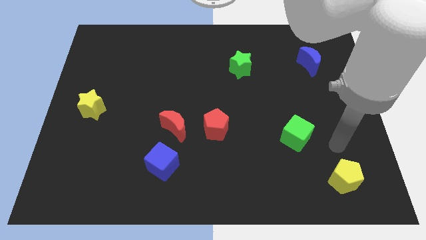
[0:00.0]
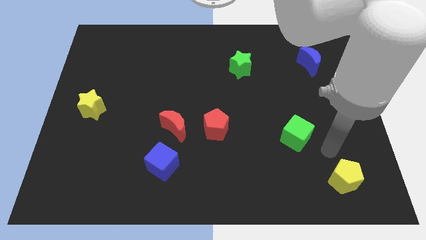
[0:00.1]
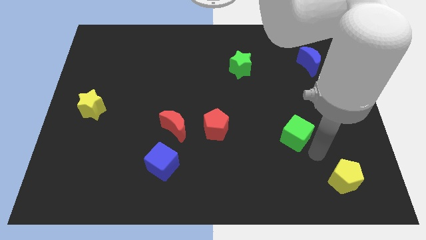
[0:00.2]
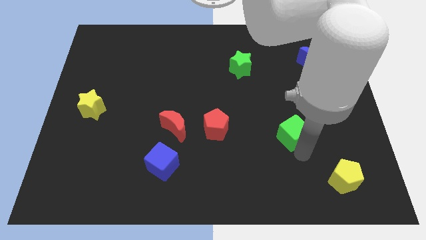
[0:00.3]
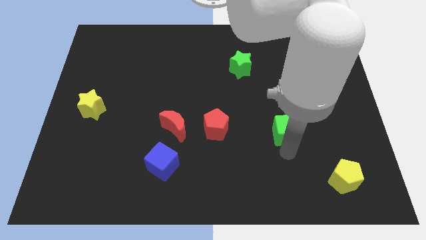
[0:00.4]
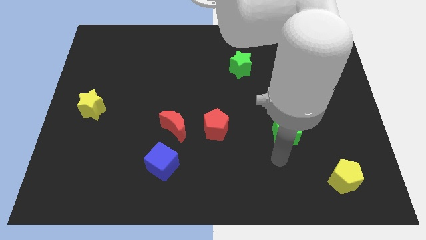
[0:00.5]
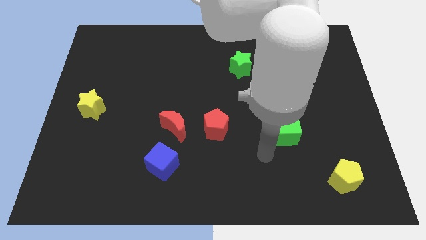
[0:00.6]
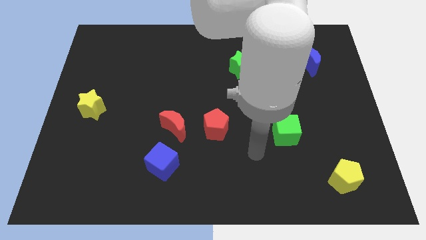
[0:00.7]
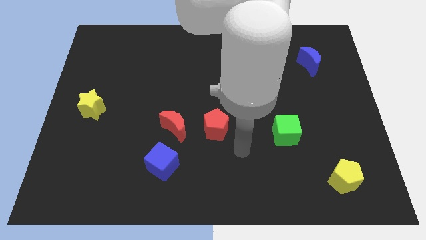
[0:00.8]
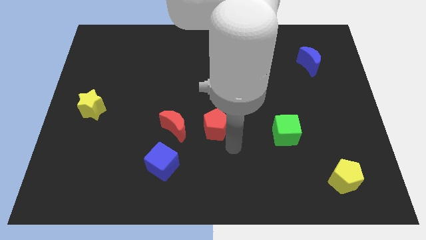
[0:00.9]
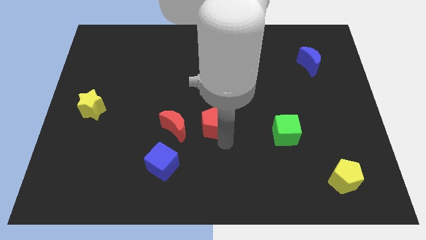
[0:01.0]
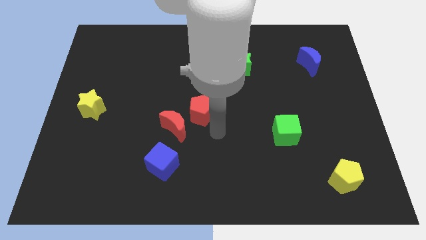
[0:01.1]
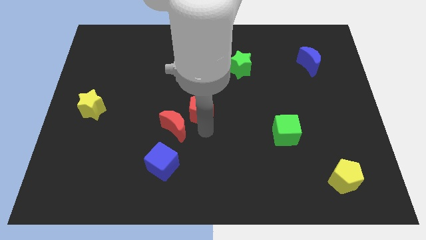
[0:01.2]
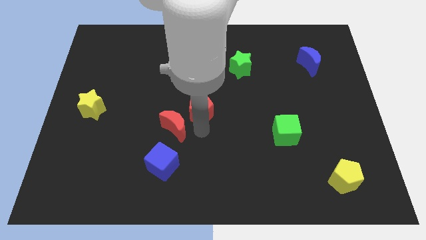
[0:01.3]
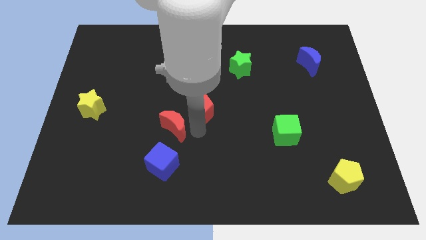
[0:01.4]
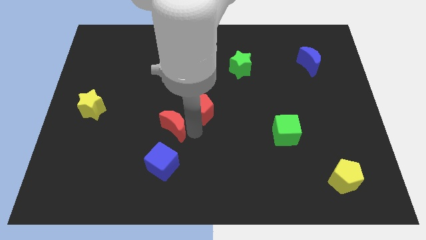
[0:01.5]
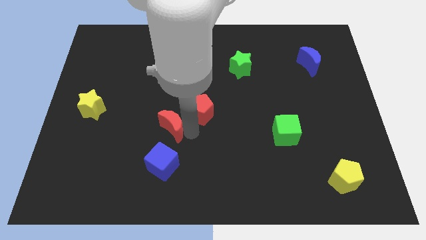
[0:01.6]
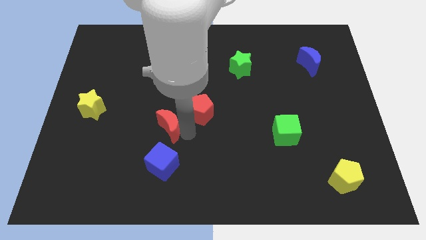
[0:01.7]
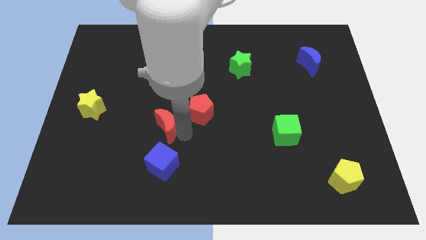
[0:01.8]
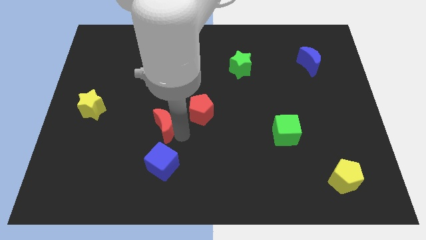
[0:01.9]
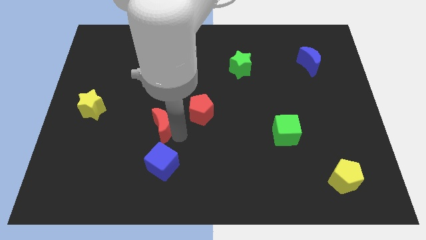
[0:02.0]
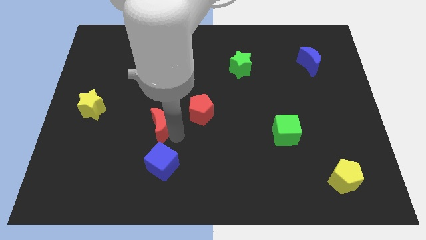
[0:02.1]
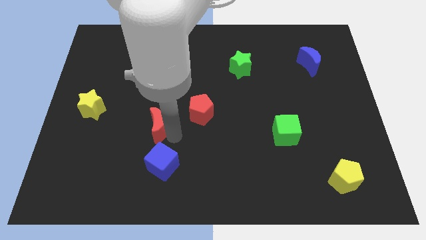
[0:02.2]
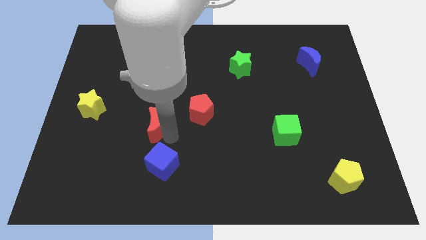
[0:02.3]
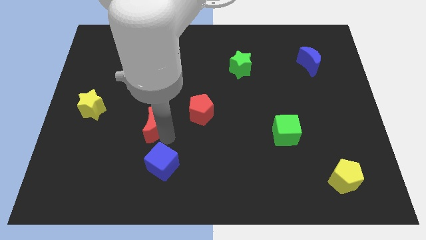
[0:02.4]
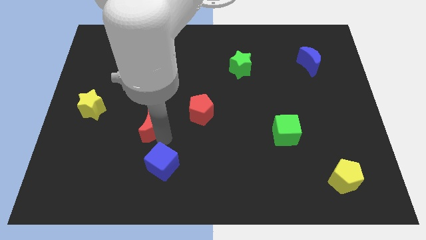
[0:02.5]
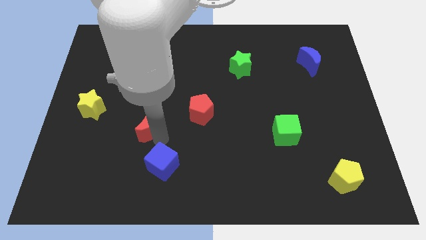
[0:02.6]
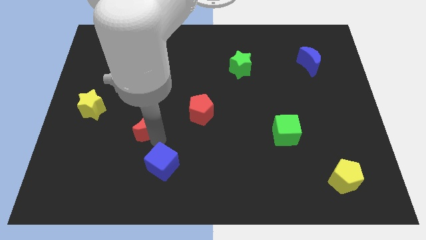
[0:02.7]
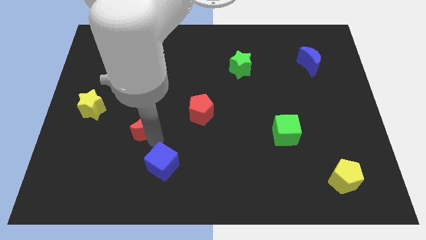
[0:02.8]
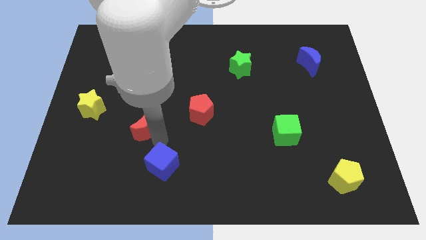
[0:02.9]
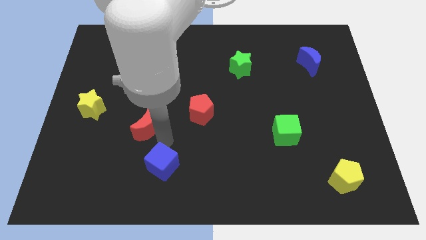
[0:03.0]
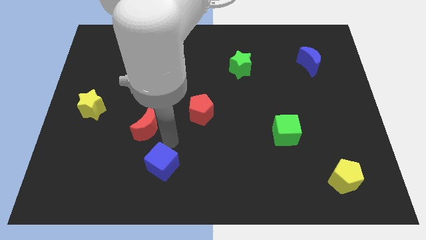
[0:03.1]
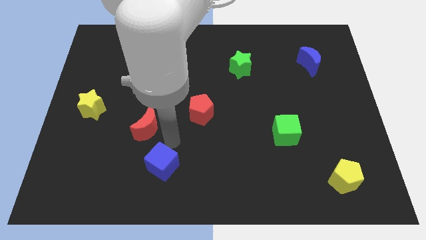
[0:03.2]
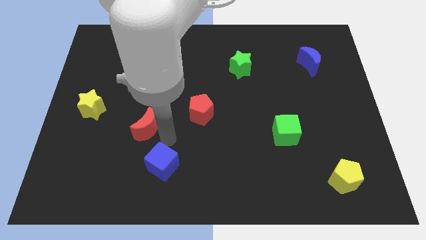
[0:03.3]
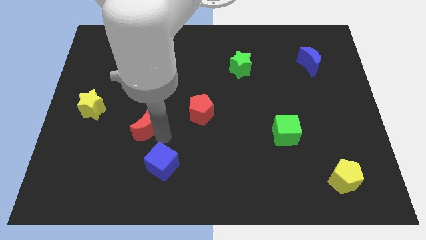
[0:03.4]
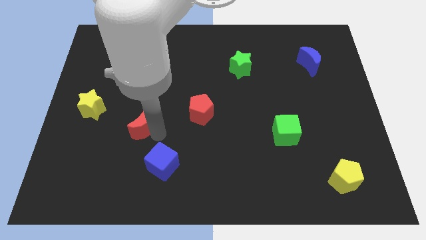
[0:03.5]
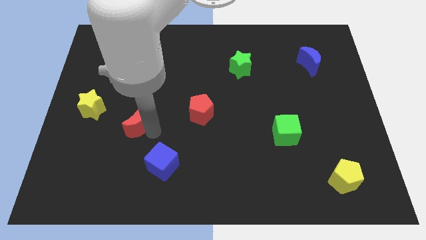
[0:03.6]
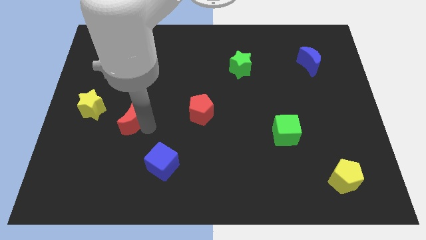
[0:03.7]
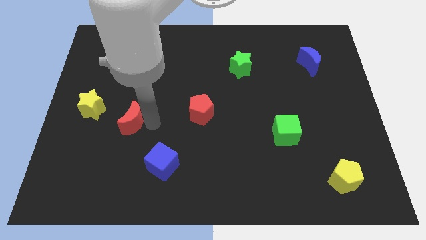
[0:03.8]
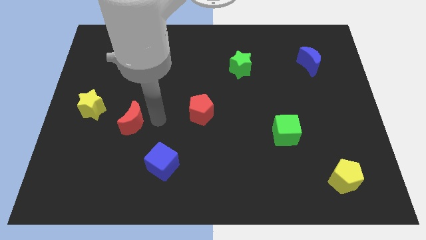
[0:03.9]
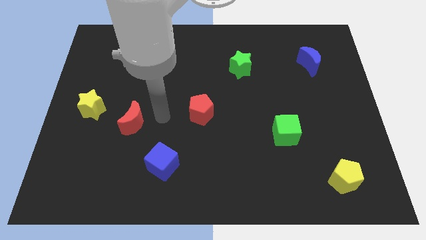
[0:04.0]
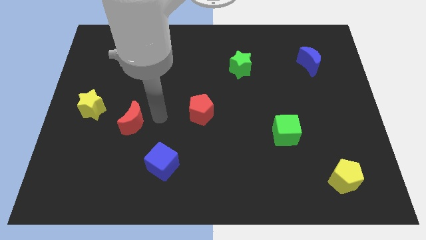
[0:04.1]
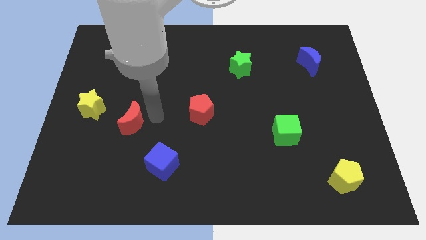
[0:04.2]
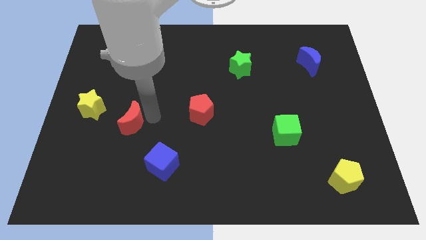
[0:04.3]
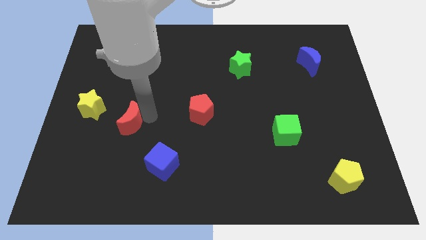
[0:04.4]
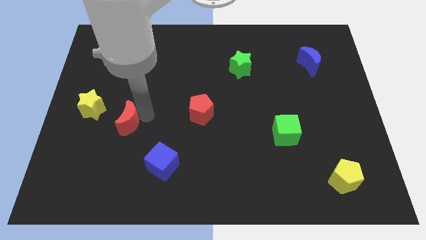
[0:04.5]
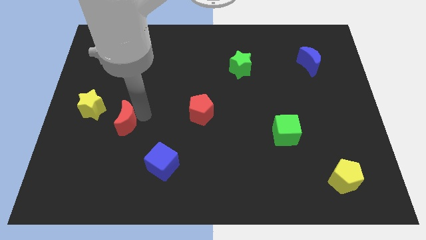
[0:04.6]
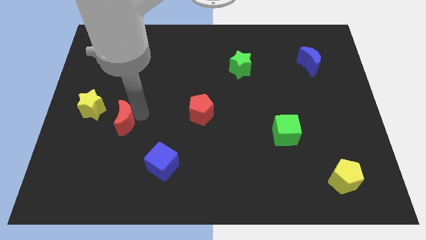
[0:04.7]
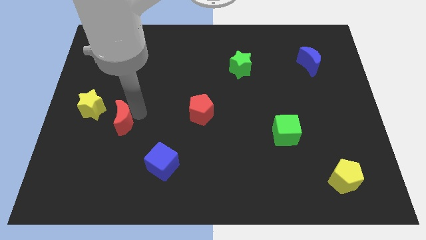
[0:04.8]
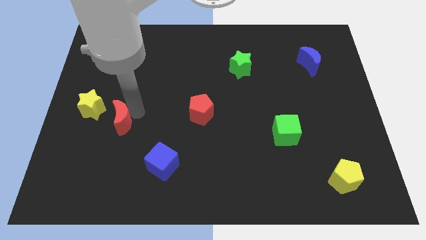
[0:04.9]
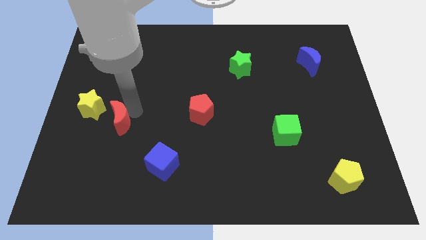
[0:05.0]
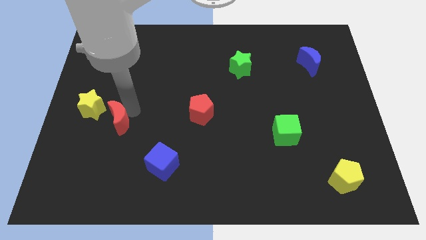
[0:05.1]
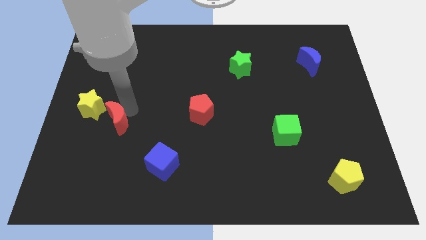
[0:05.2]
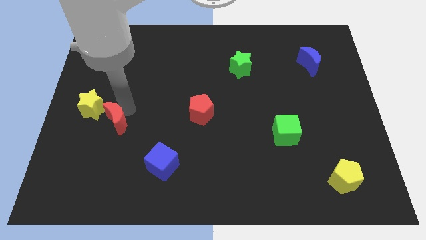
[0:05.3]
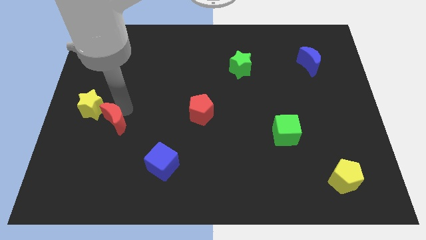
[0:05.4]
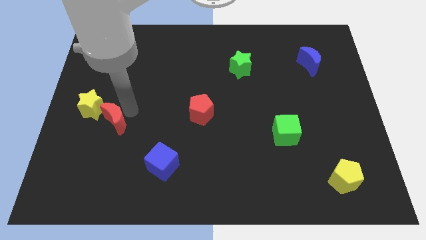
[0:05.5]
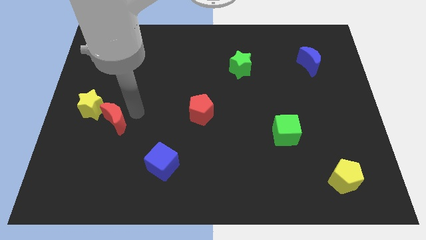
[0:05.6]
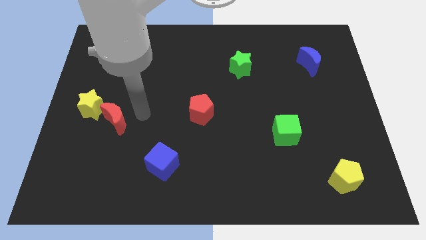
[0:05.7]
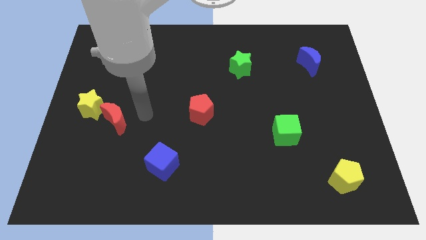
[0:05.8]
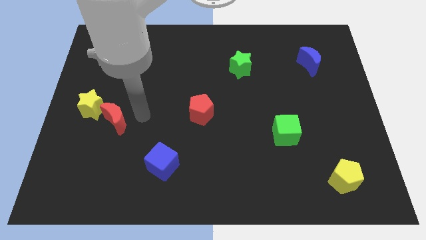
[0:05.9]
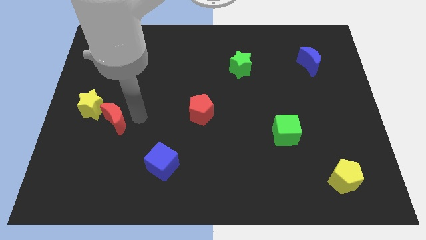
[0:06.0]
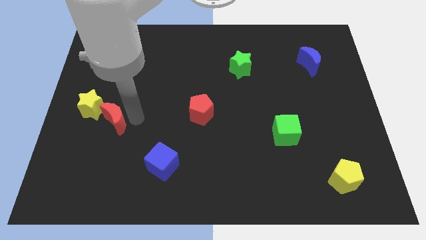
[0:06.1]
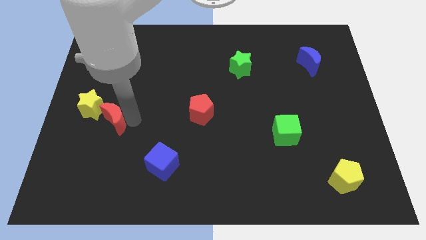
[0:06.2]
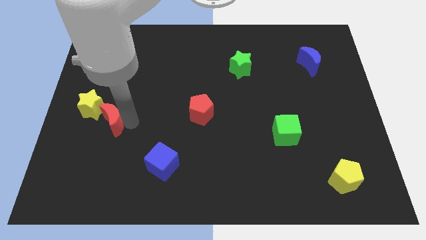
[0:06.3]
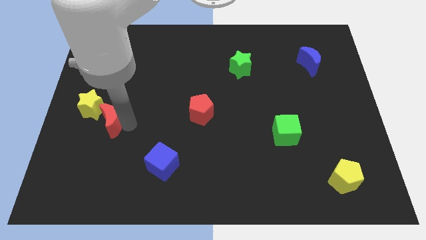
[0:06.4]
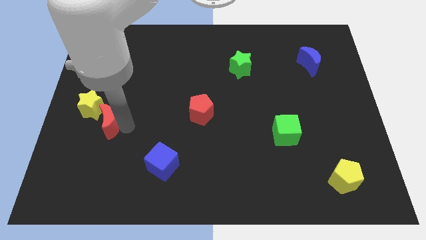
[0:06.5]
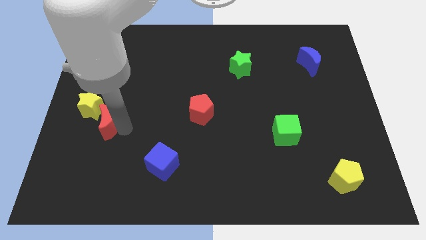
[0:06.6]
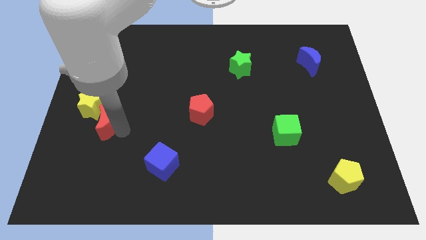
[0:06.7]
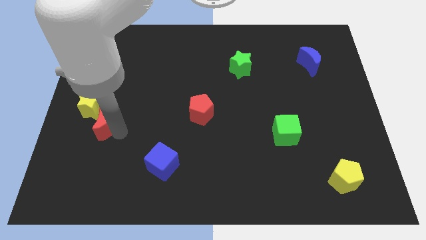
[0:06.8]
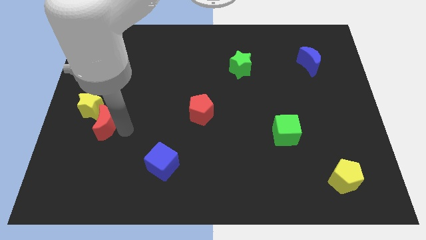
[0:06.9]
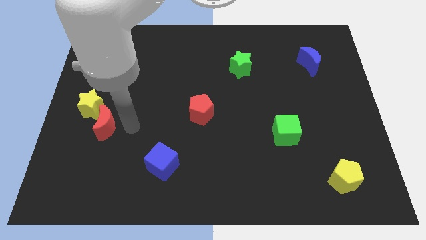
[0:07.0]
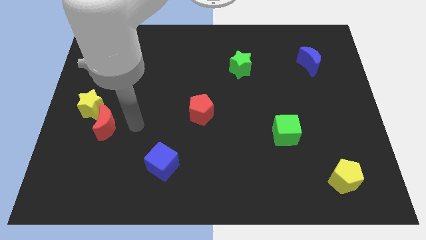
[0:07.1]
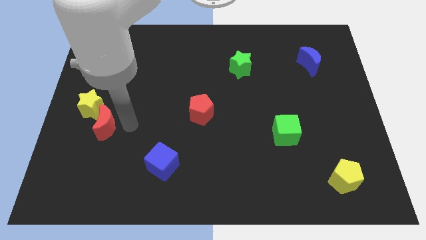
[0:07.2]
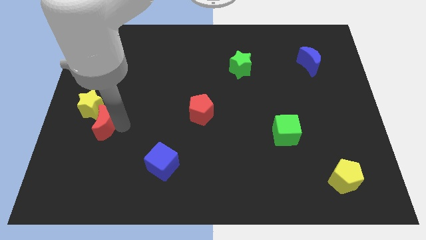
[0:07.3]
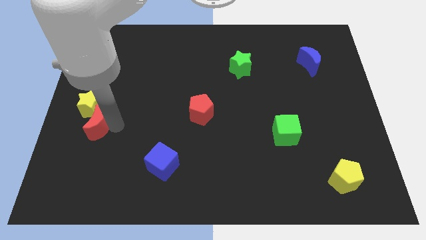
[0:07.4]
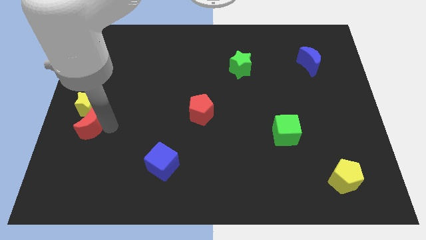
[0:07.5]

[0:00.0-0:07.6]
push the red moon to the left side of the board
